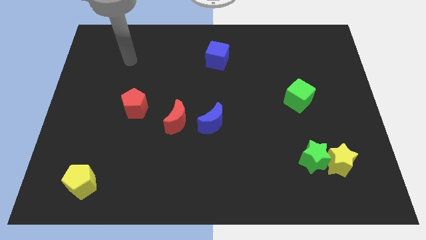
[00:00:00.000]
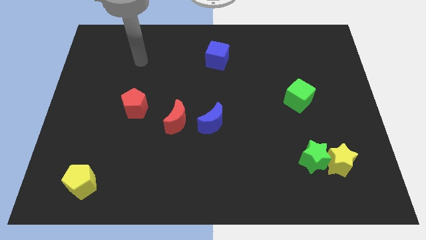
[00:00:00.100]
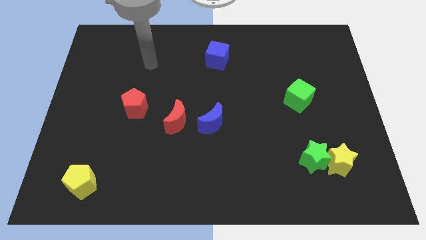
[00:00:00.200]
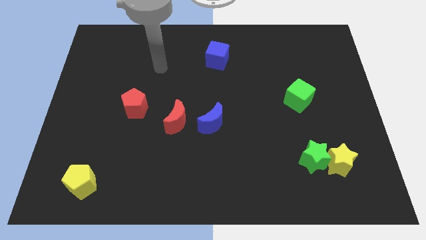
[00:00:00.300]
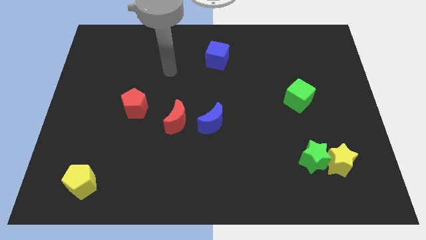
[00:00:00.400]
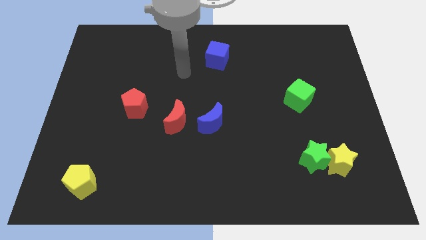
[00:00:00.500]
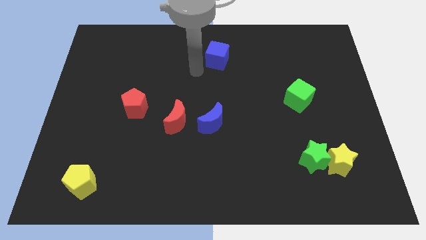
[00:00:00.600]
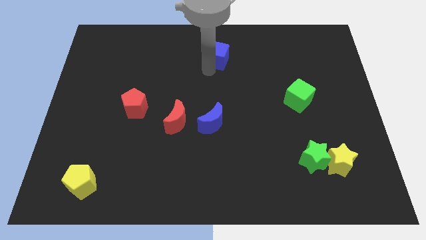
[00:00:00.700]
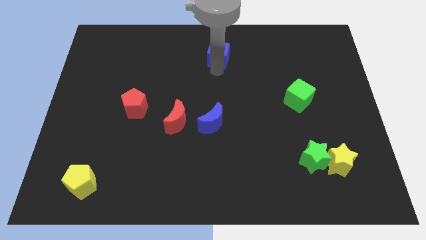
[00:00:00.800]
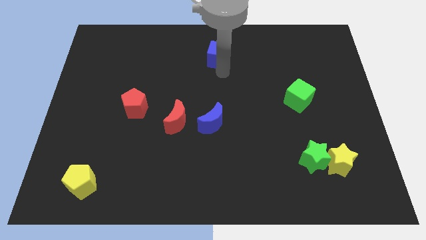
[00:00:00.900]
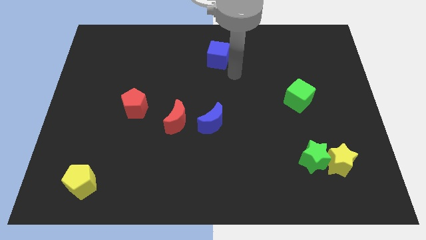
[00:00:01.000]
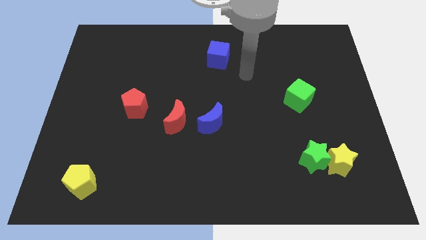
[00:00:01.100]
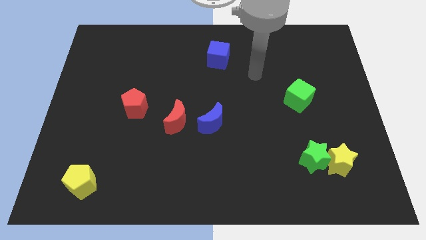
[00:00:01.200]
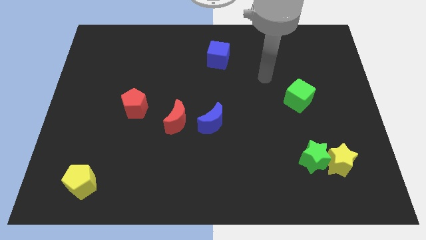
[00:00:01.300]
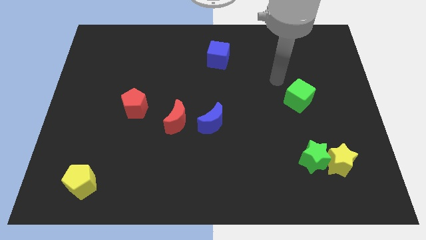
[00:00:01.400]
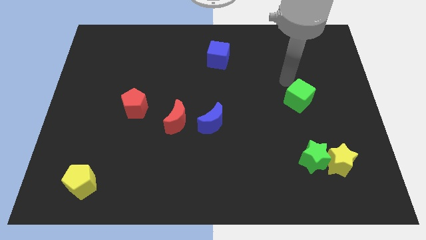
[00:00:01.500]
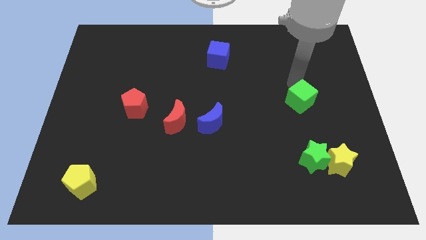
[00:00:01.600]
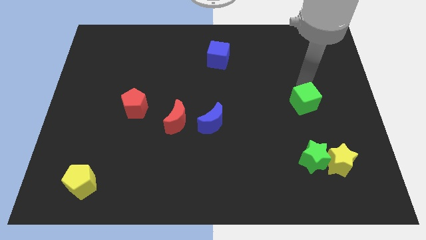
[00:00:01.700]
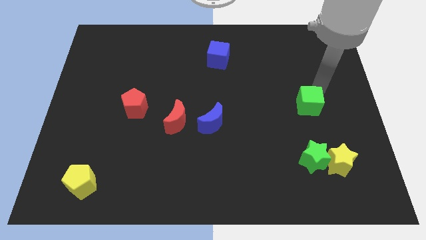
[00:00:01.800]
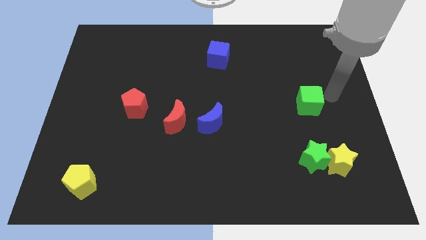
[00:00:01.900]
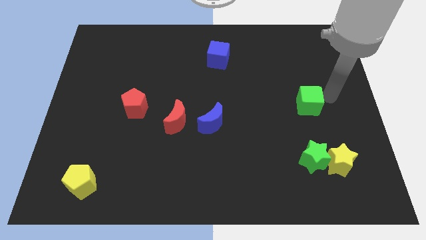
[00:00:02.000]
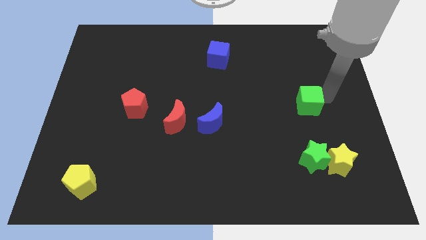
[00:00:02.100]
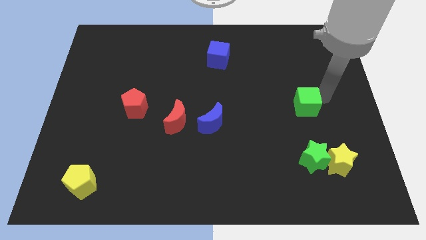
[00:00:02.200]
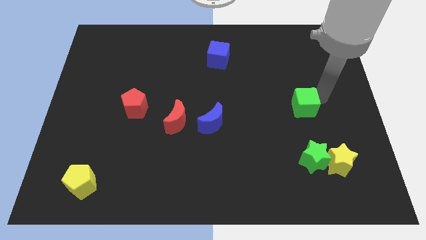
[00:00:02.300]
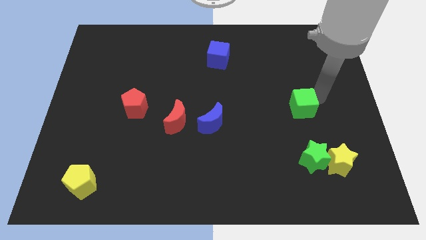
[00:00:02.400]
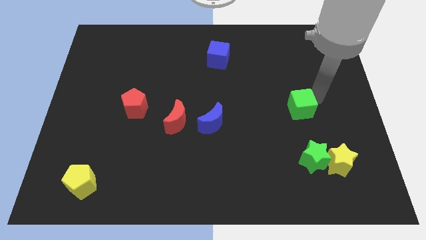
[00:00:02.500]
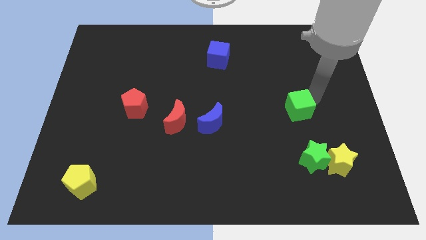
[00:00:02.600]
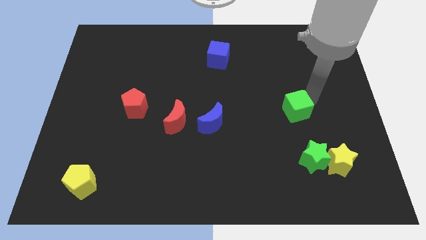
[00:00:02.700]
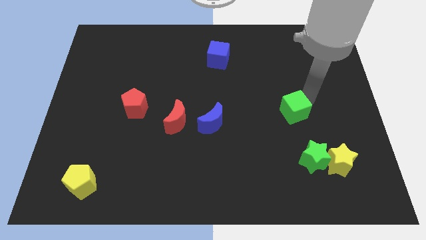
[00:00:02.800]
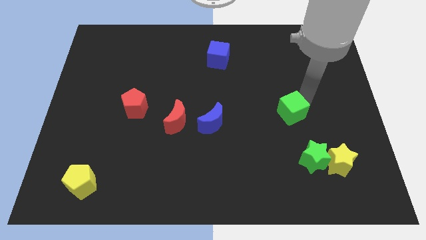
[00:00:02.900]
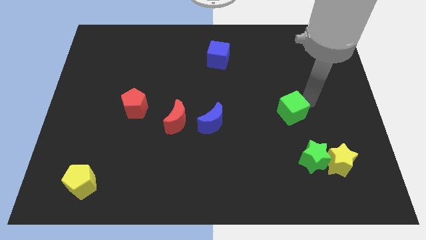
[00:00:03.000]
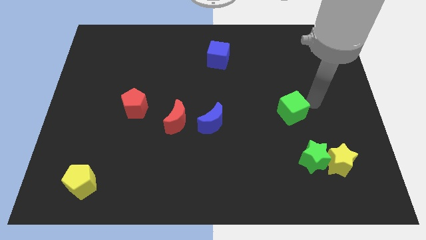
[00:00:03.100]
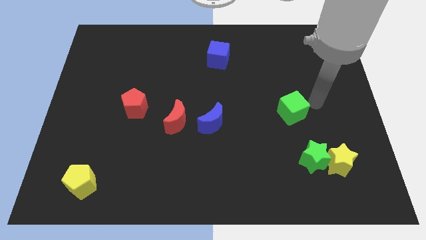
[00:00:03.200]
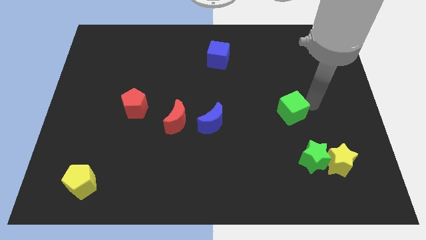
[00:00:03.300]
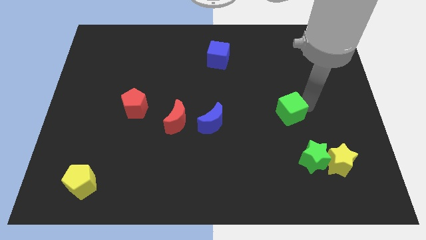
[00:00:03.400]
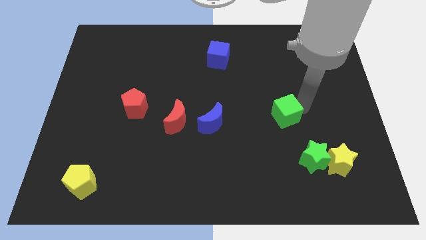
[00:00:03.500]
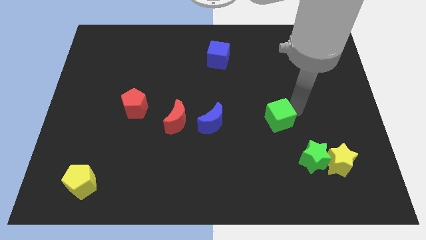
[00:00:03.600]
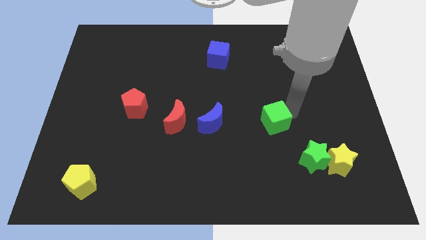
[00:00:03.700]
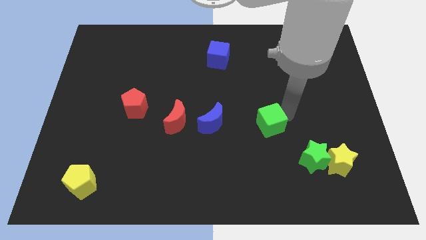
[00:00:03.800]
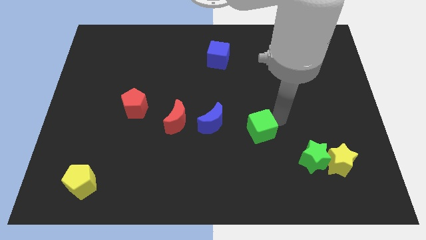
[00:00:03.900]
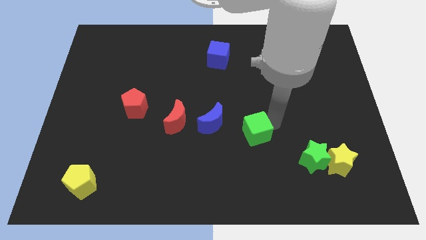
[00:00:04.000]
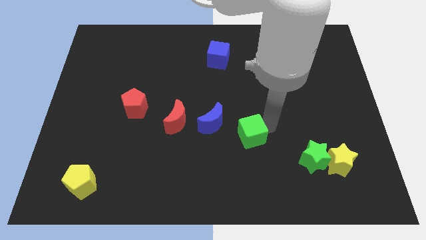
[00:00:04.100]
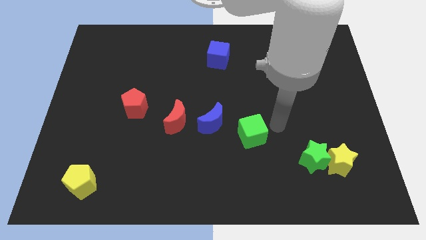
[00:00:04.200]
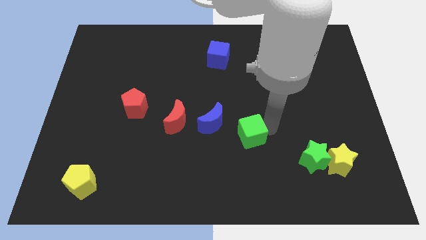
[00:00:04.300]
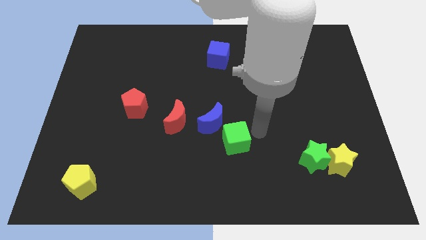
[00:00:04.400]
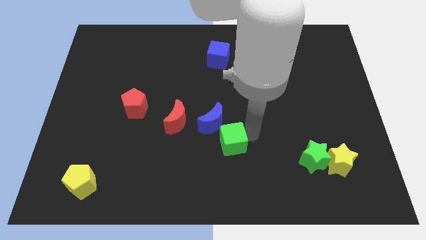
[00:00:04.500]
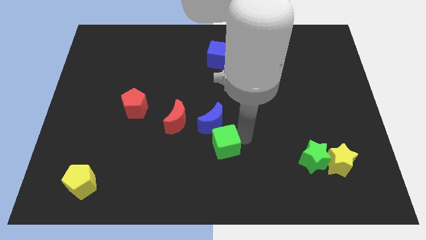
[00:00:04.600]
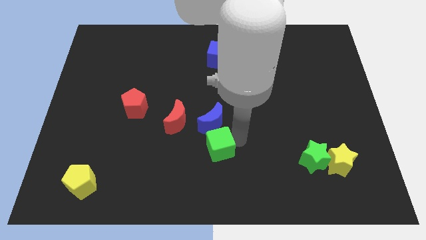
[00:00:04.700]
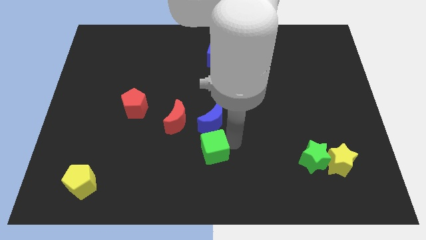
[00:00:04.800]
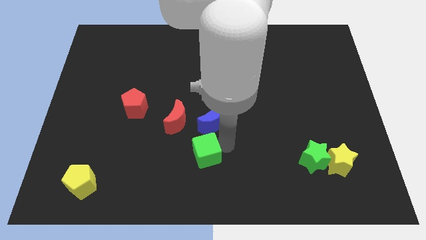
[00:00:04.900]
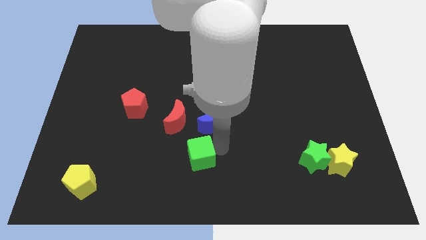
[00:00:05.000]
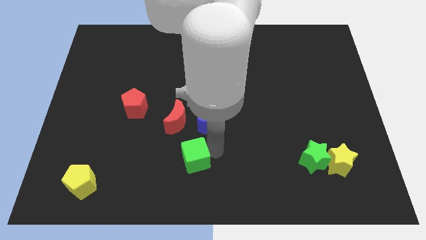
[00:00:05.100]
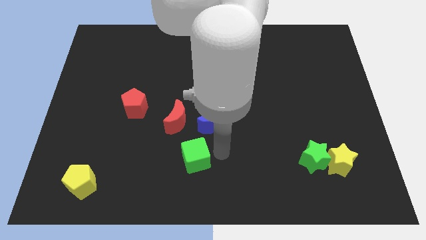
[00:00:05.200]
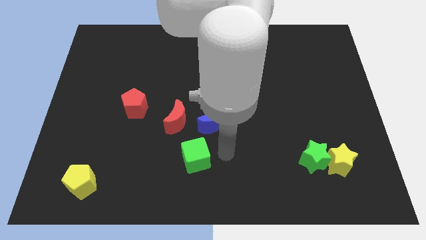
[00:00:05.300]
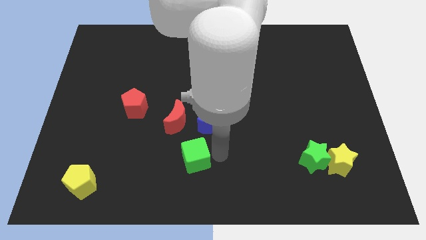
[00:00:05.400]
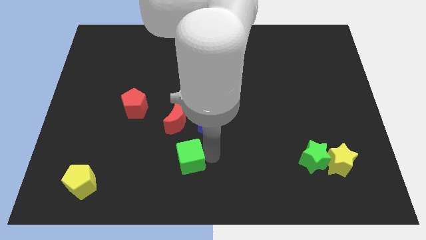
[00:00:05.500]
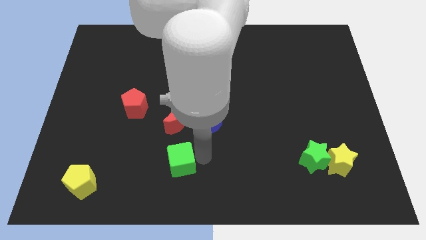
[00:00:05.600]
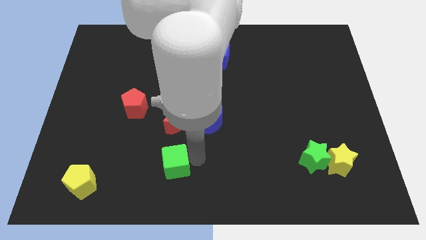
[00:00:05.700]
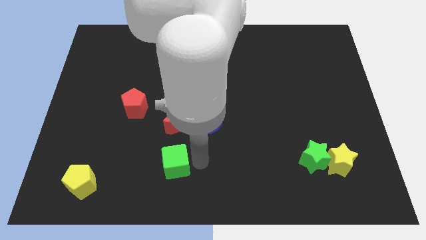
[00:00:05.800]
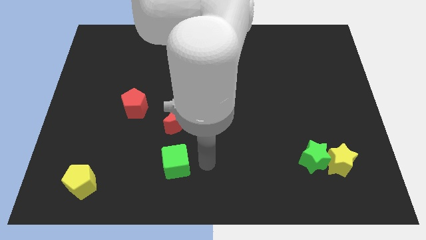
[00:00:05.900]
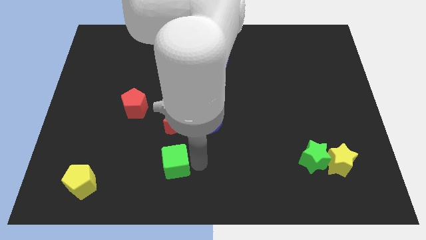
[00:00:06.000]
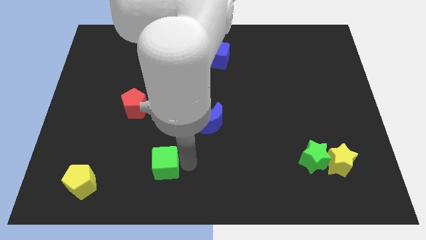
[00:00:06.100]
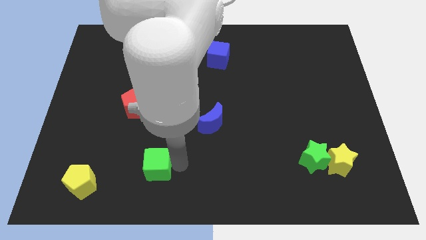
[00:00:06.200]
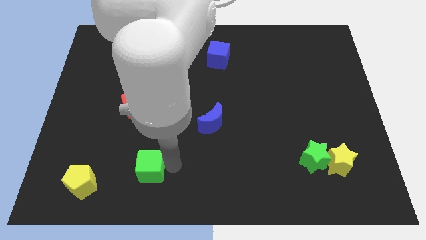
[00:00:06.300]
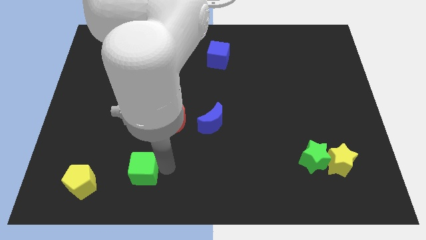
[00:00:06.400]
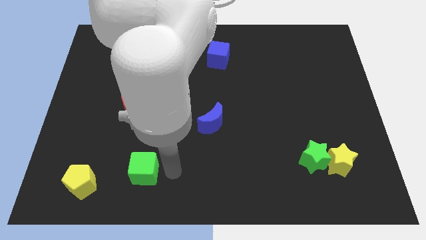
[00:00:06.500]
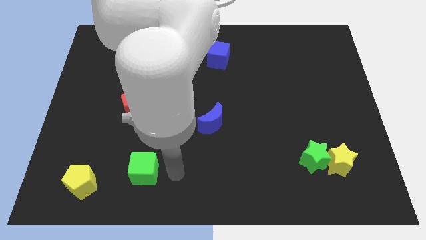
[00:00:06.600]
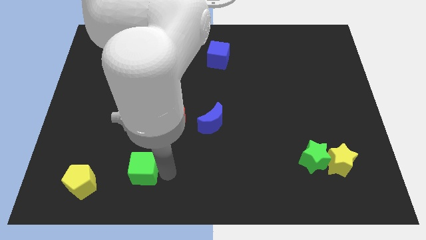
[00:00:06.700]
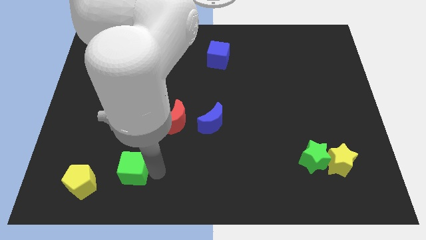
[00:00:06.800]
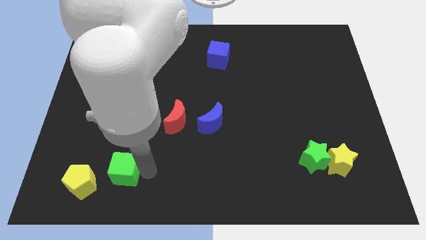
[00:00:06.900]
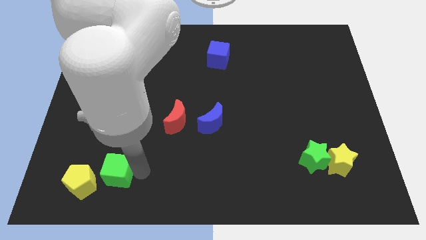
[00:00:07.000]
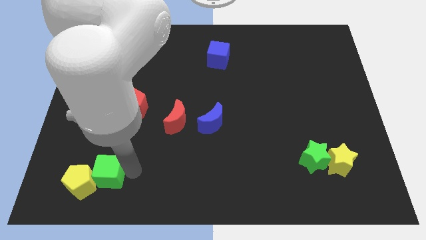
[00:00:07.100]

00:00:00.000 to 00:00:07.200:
move the green cube next to the yellow pentagon
